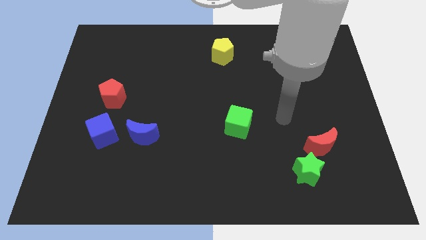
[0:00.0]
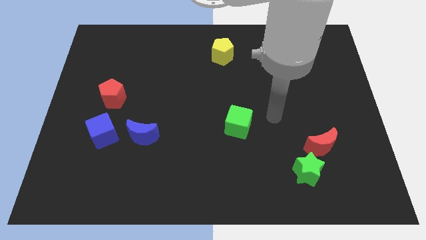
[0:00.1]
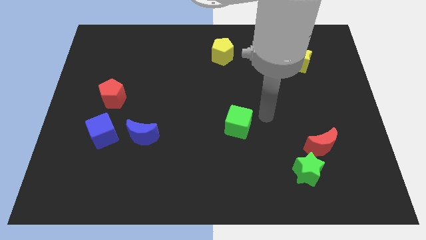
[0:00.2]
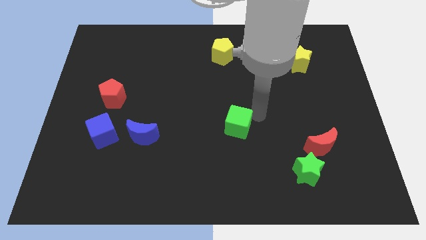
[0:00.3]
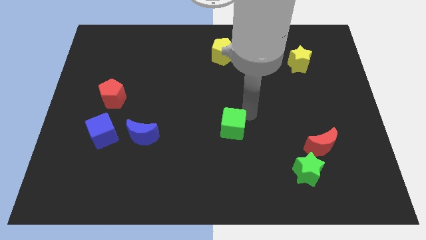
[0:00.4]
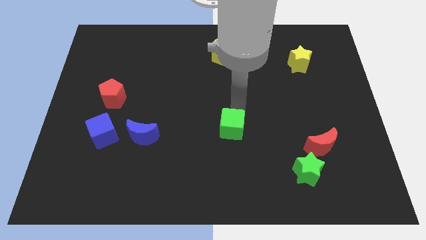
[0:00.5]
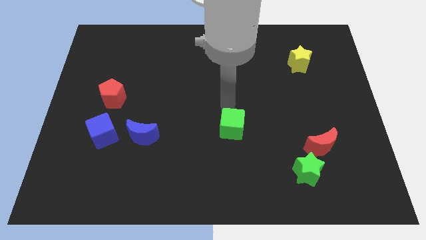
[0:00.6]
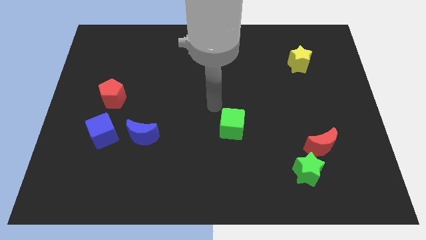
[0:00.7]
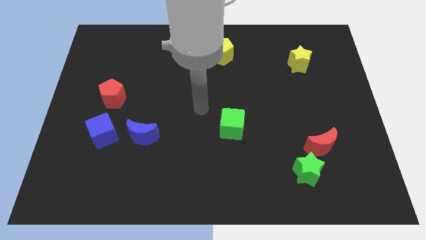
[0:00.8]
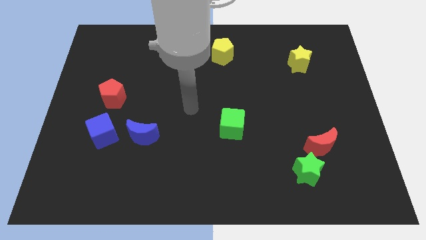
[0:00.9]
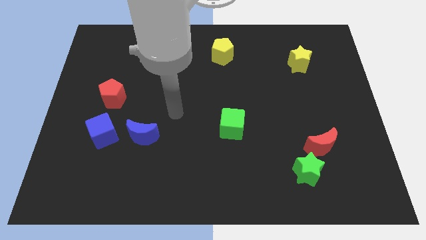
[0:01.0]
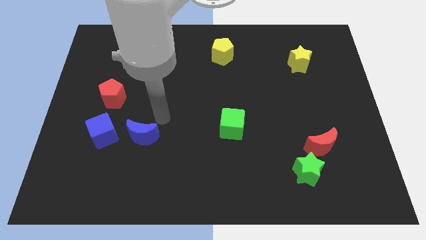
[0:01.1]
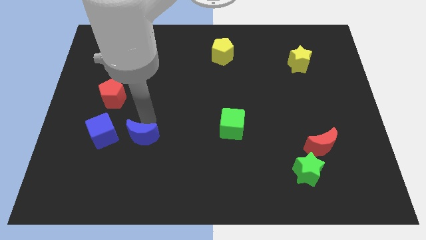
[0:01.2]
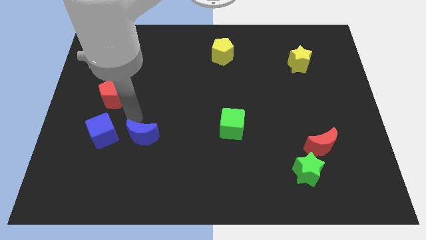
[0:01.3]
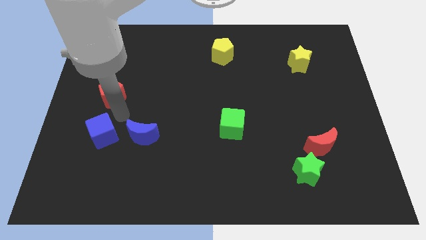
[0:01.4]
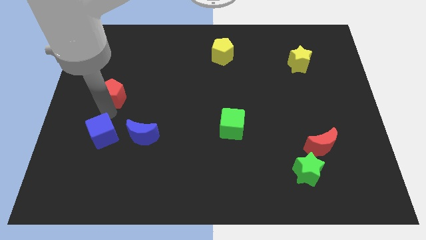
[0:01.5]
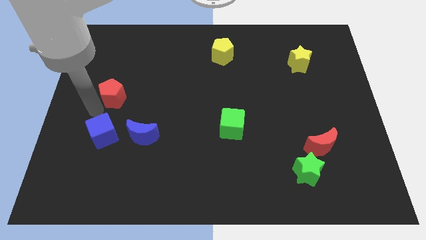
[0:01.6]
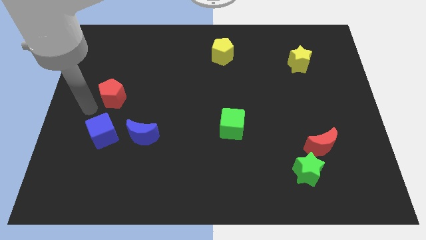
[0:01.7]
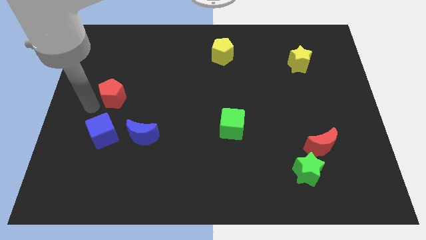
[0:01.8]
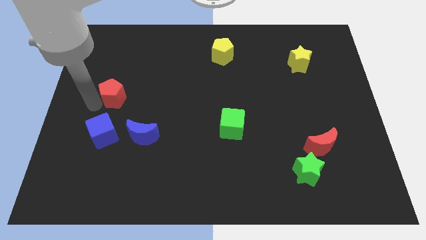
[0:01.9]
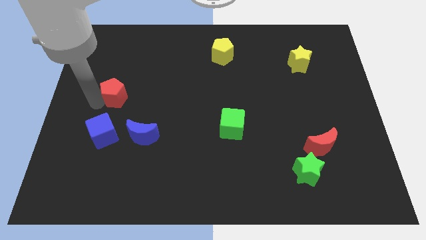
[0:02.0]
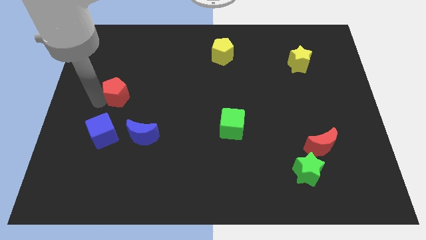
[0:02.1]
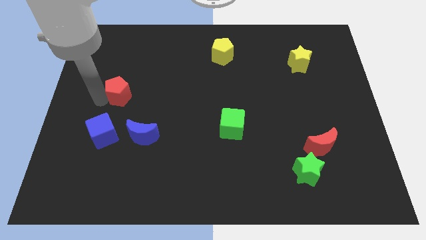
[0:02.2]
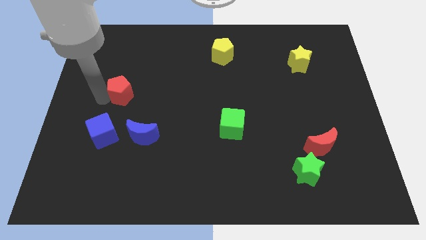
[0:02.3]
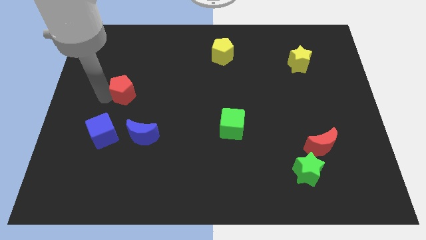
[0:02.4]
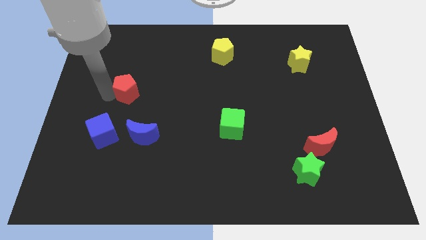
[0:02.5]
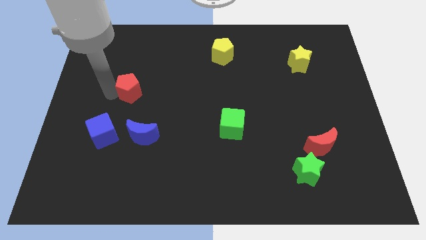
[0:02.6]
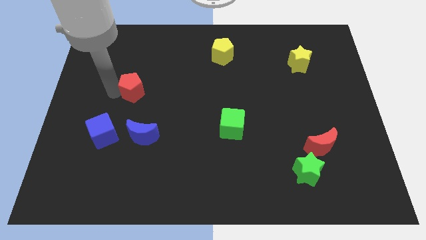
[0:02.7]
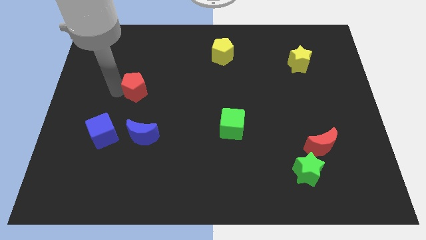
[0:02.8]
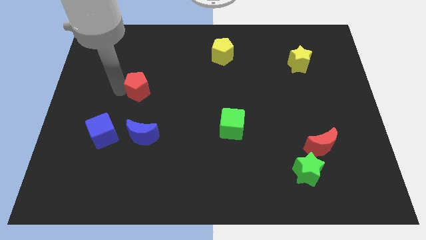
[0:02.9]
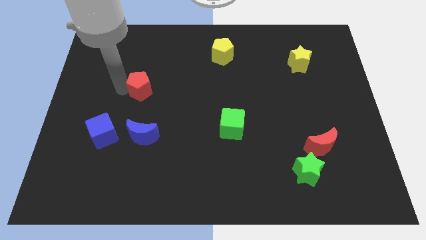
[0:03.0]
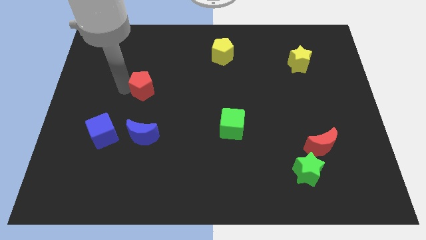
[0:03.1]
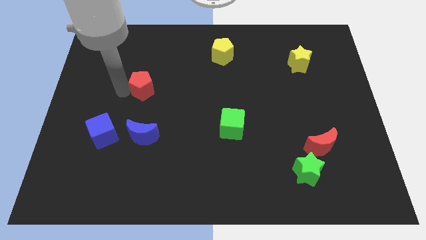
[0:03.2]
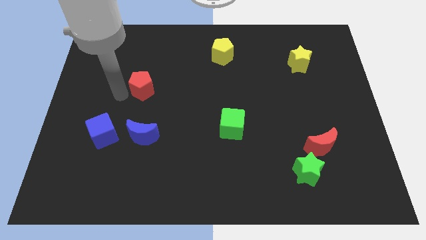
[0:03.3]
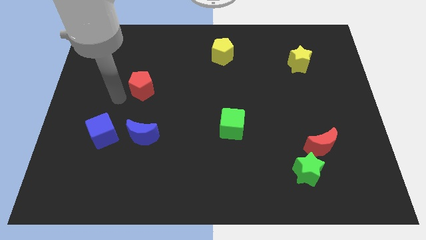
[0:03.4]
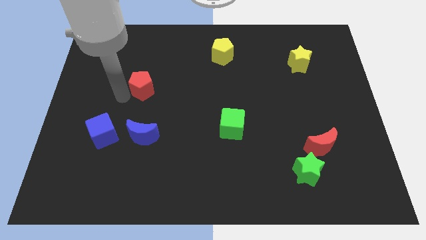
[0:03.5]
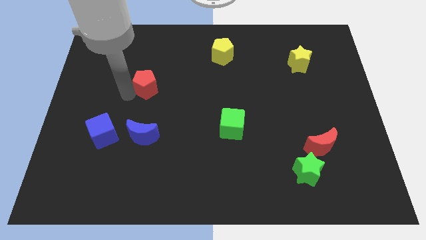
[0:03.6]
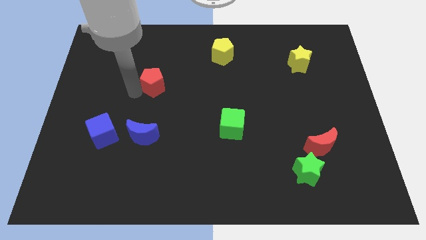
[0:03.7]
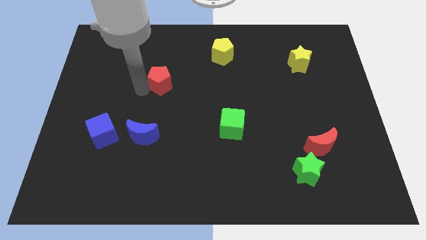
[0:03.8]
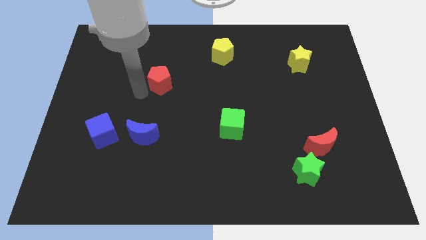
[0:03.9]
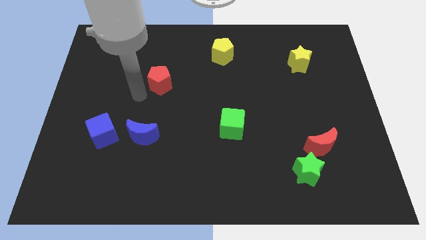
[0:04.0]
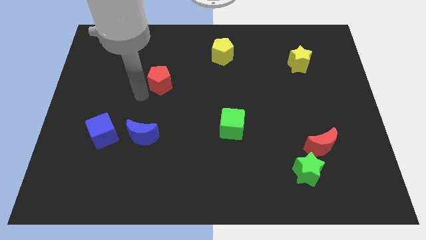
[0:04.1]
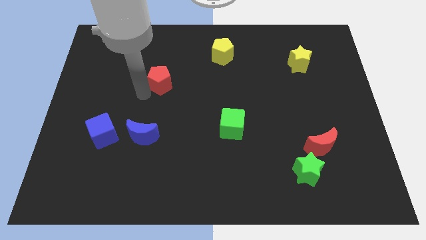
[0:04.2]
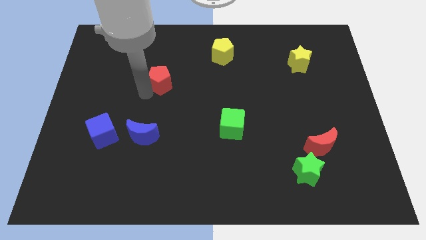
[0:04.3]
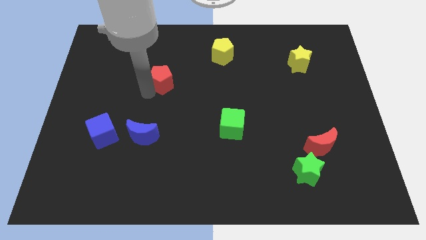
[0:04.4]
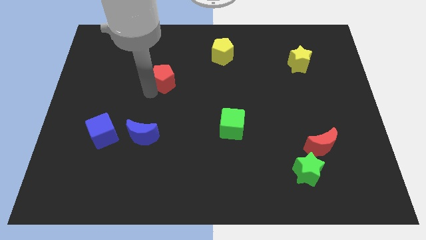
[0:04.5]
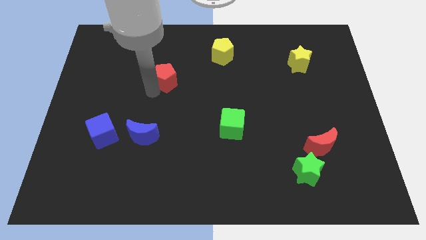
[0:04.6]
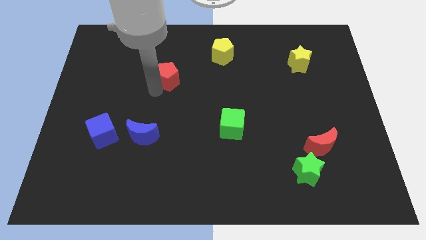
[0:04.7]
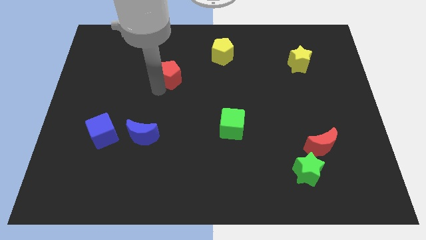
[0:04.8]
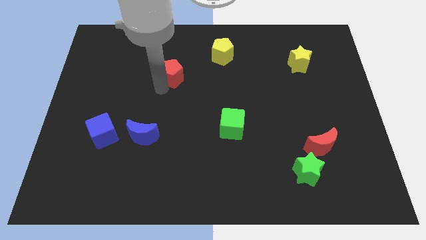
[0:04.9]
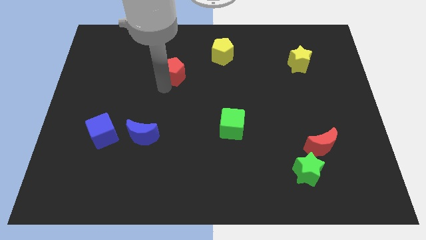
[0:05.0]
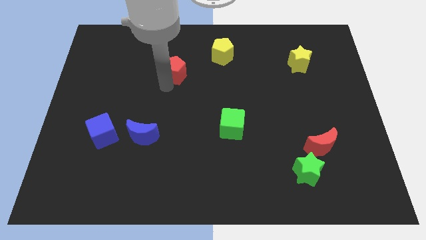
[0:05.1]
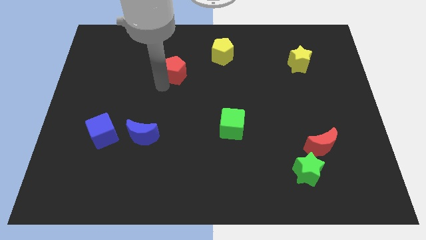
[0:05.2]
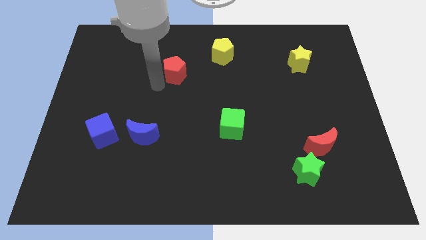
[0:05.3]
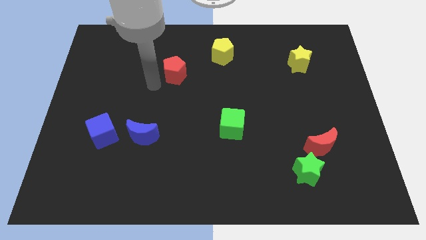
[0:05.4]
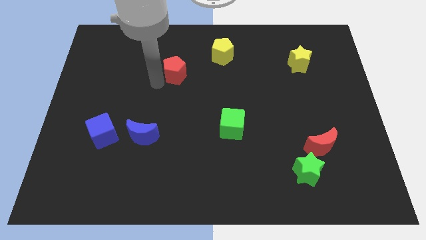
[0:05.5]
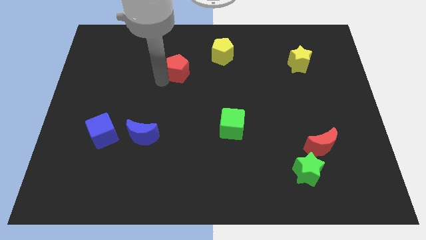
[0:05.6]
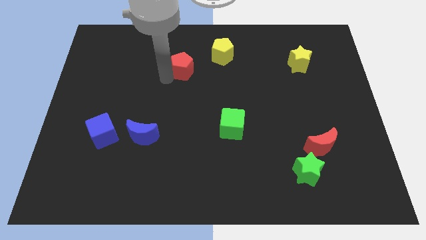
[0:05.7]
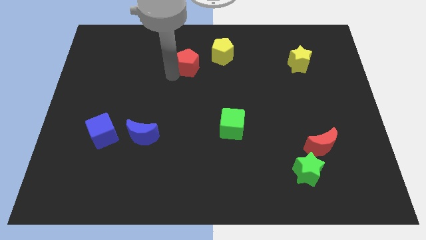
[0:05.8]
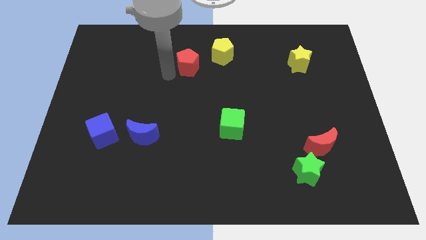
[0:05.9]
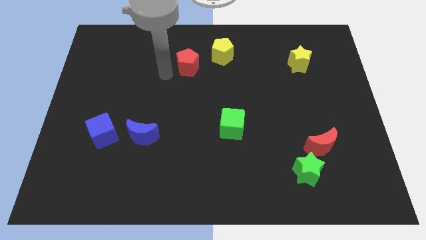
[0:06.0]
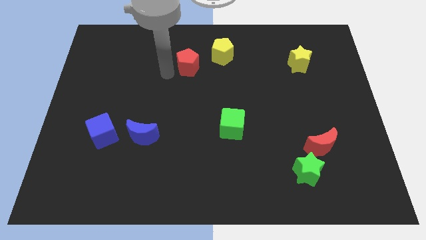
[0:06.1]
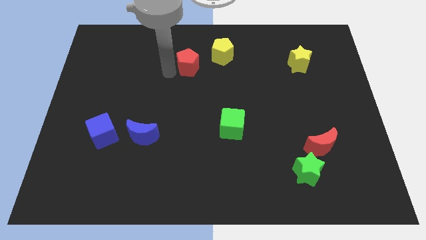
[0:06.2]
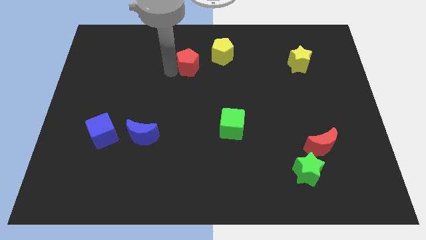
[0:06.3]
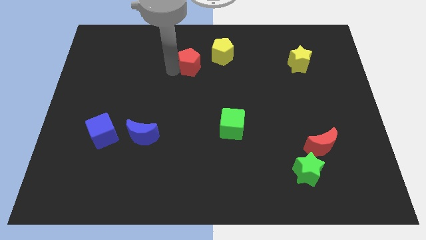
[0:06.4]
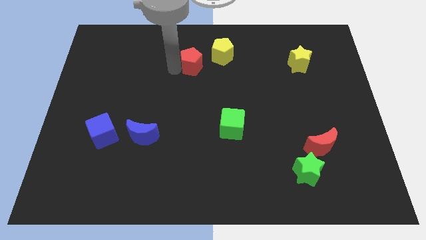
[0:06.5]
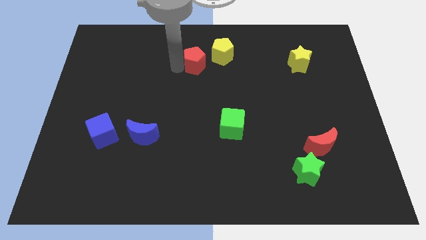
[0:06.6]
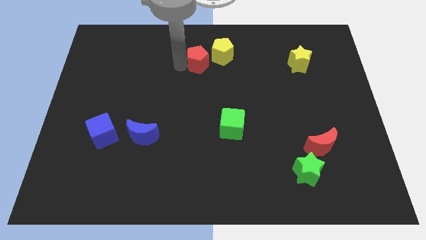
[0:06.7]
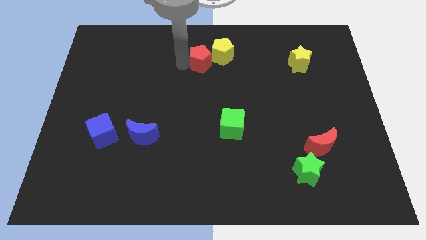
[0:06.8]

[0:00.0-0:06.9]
put the red pentagon to the yellow pentagon

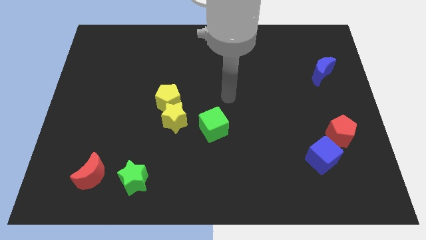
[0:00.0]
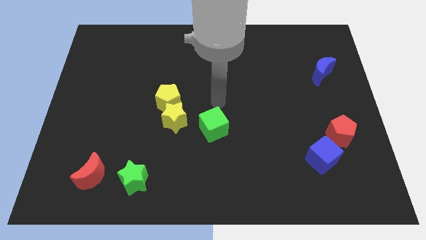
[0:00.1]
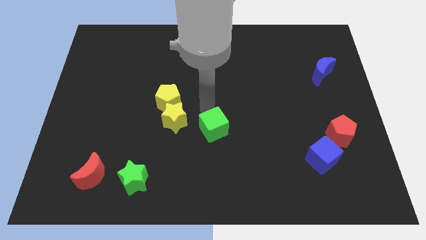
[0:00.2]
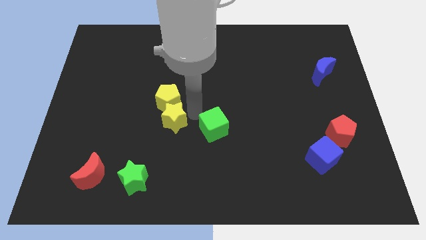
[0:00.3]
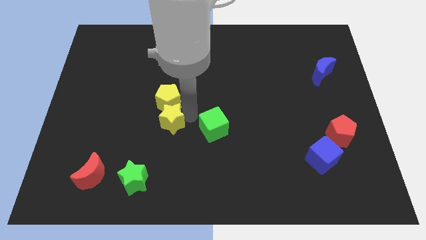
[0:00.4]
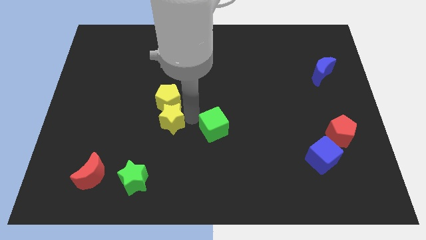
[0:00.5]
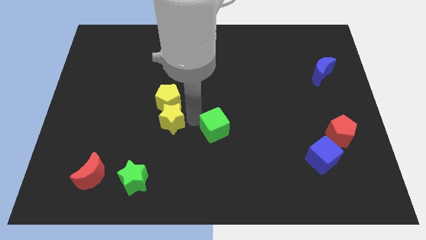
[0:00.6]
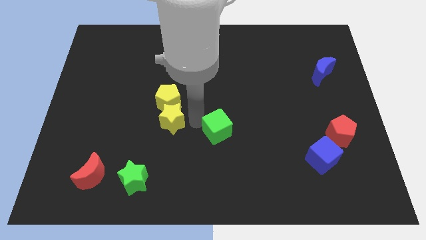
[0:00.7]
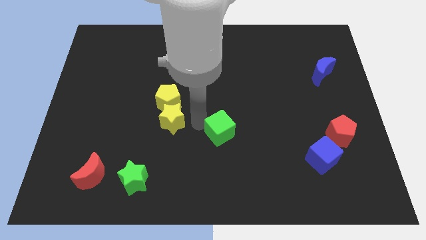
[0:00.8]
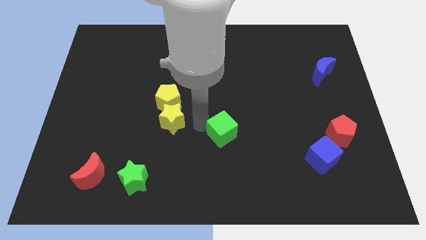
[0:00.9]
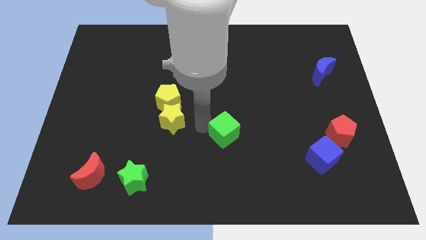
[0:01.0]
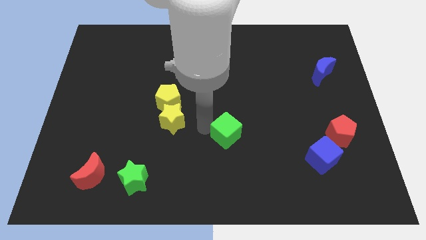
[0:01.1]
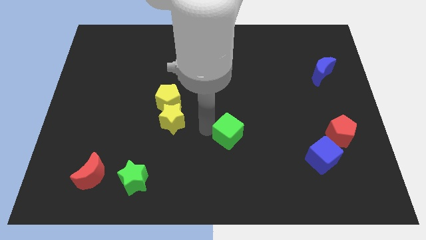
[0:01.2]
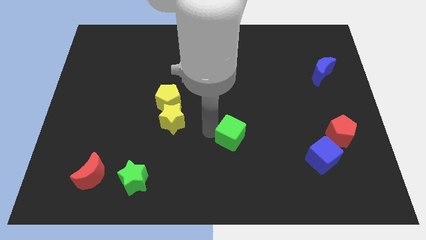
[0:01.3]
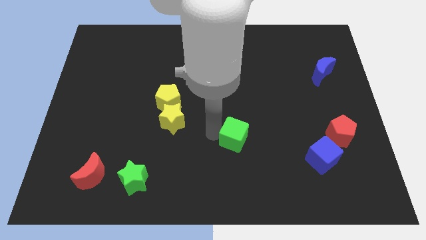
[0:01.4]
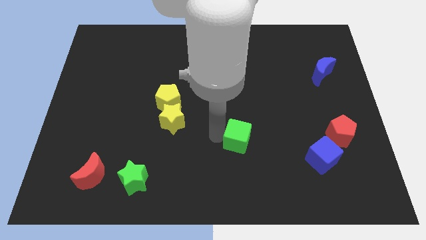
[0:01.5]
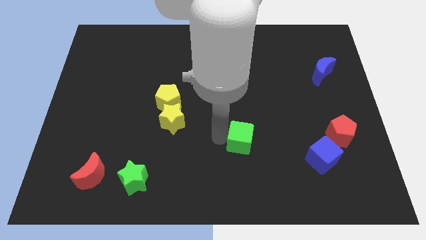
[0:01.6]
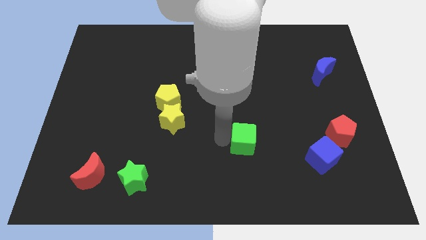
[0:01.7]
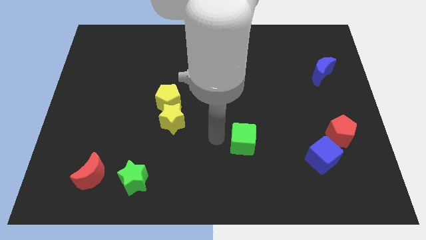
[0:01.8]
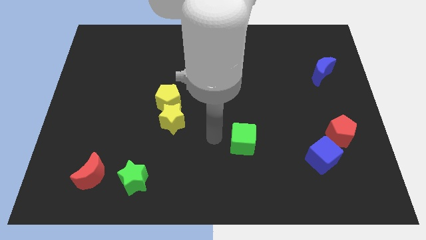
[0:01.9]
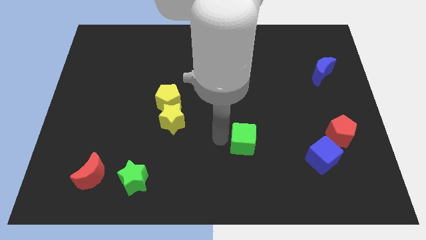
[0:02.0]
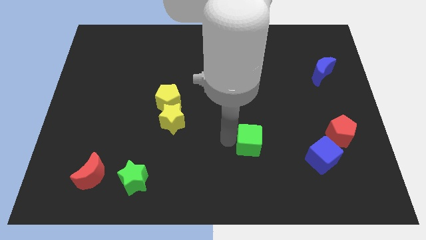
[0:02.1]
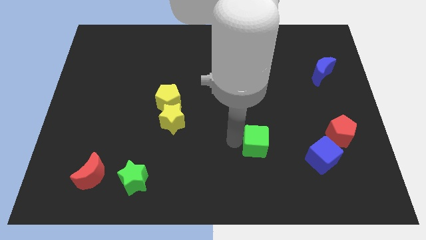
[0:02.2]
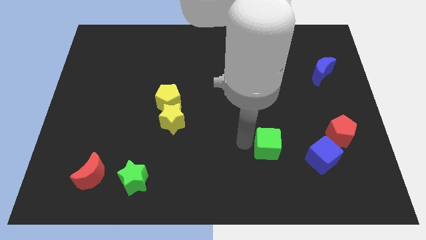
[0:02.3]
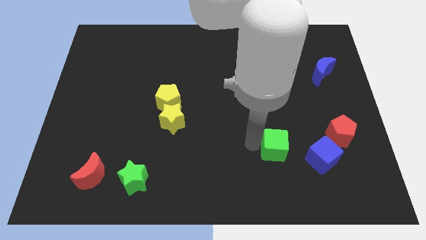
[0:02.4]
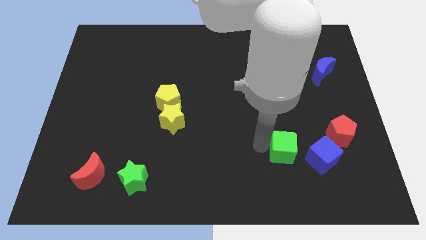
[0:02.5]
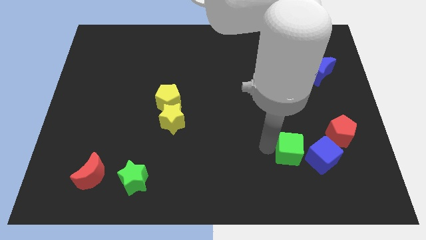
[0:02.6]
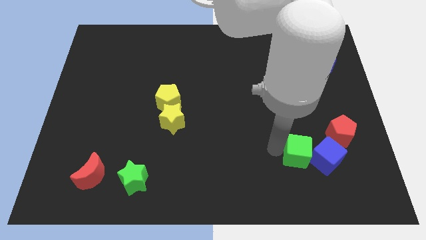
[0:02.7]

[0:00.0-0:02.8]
slide the green cube towards the blue cube
